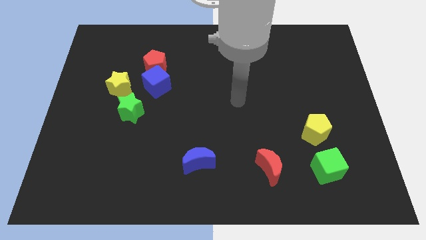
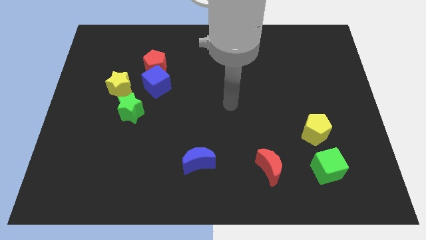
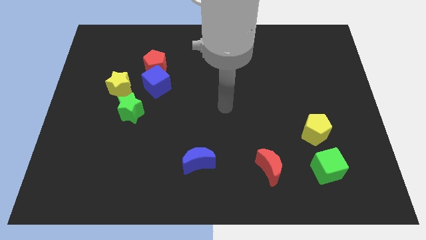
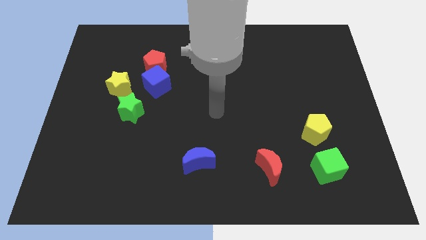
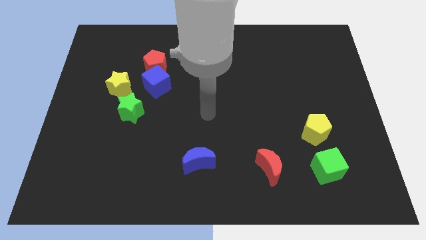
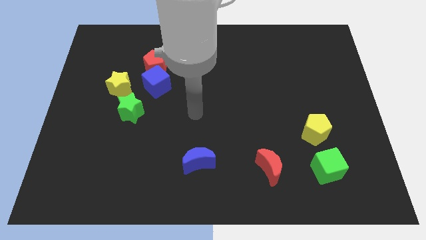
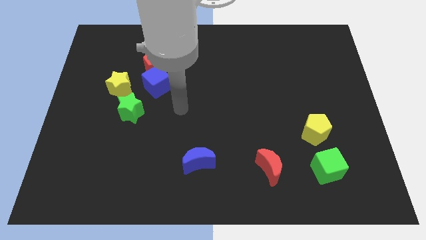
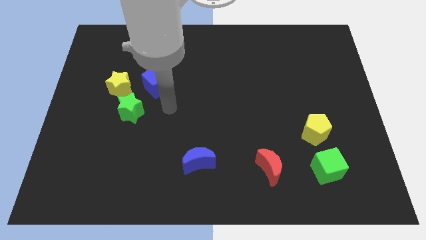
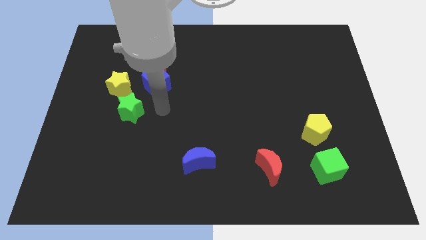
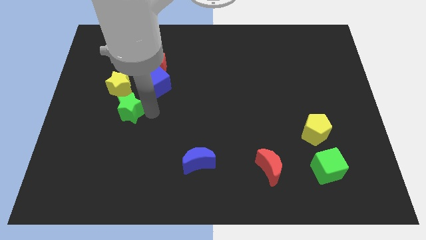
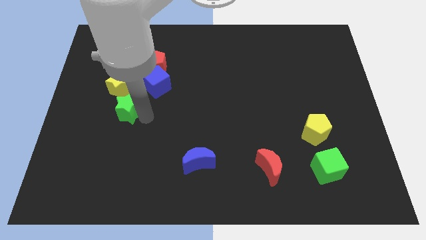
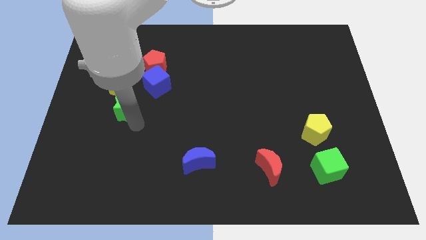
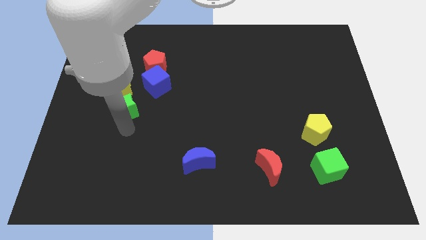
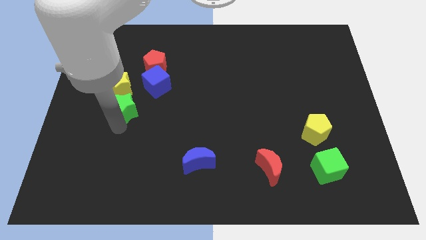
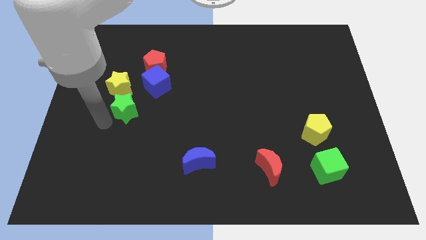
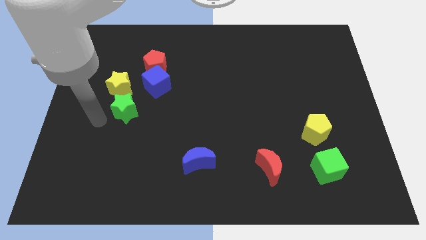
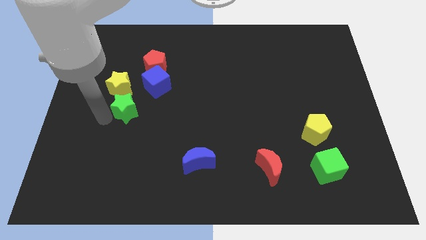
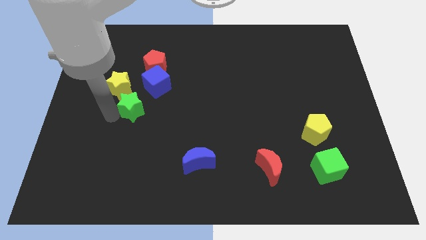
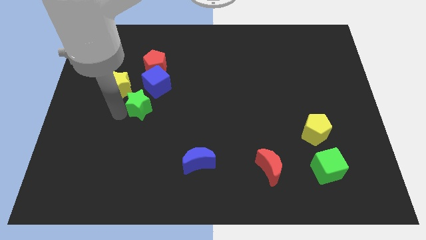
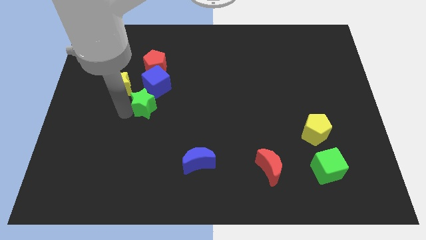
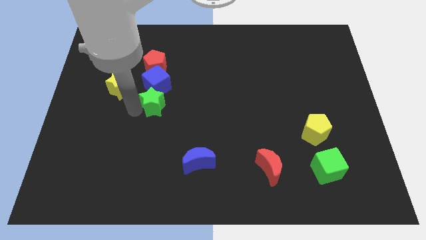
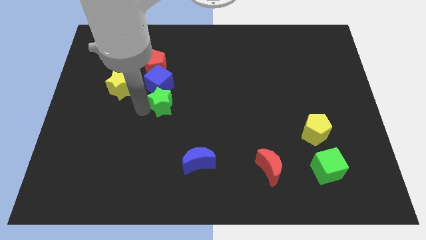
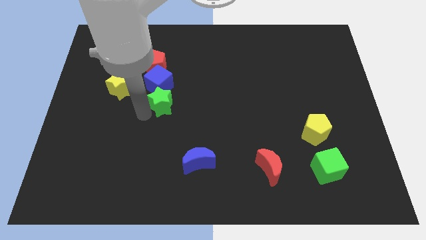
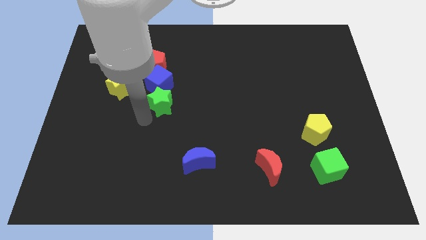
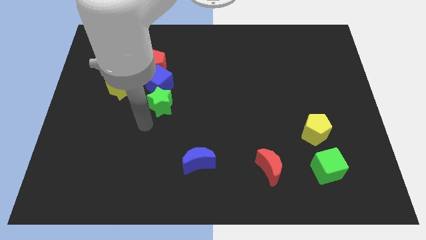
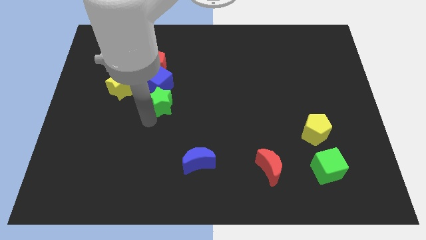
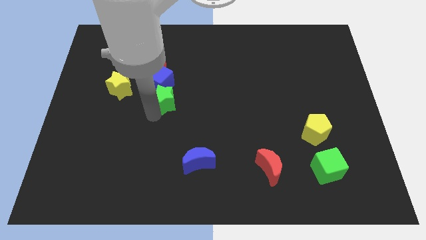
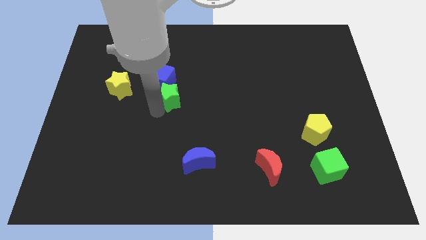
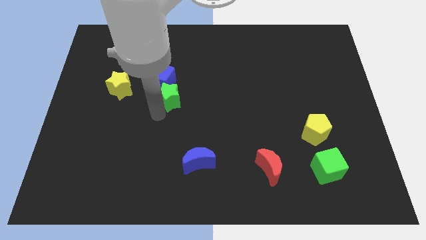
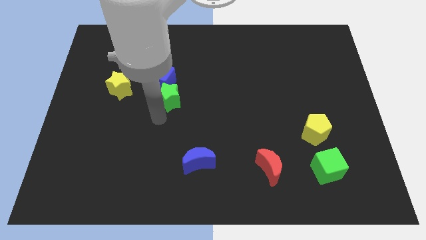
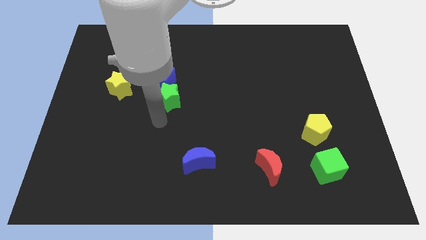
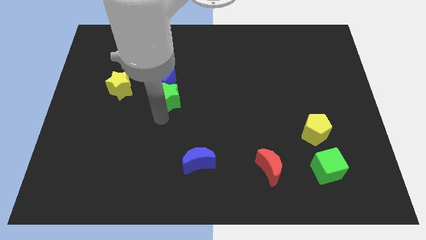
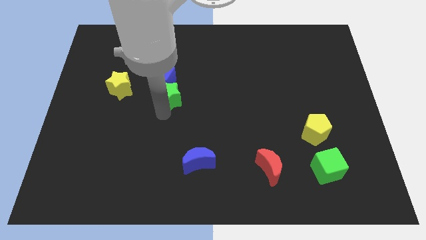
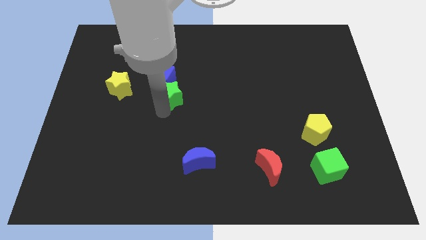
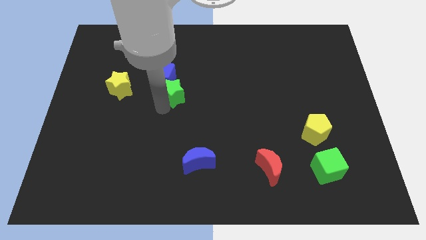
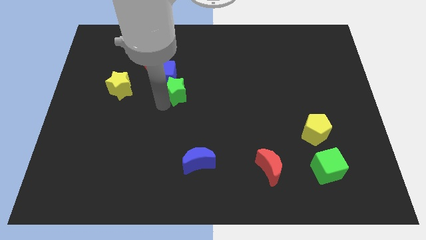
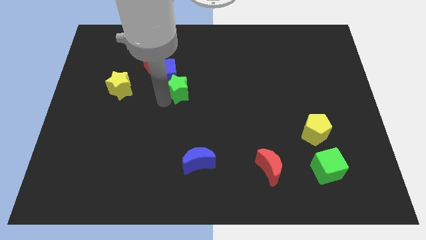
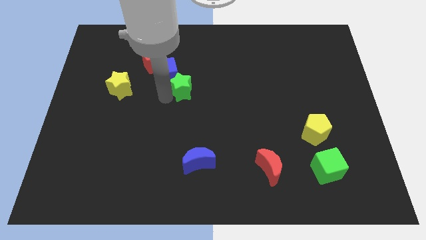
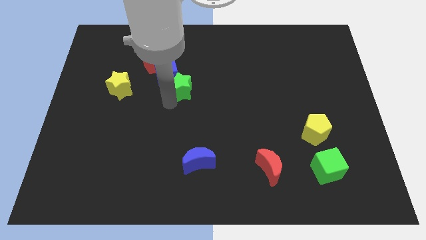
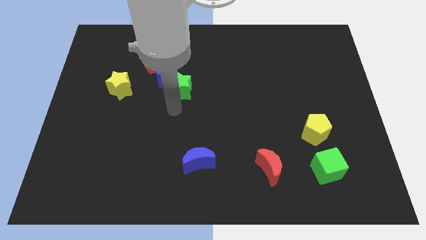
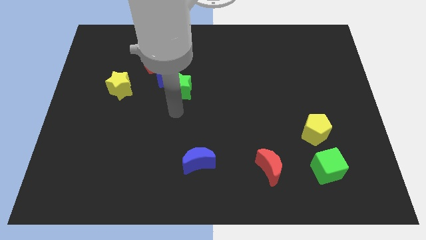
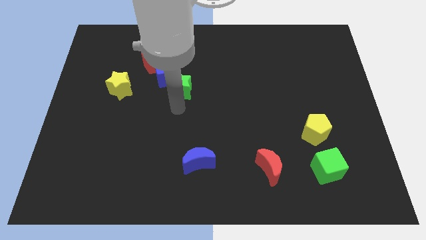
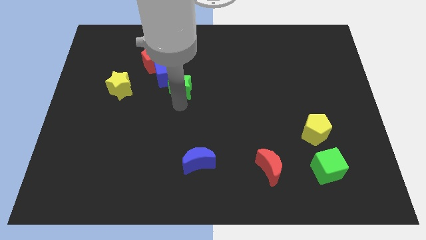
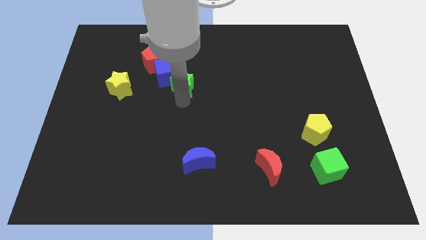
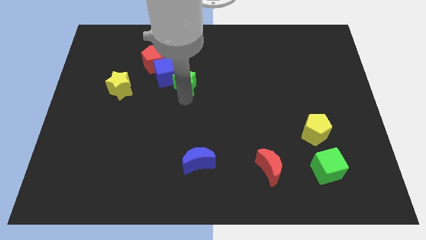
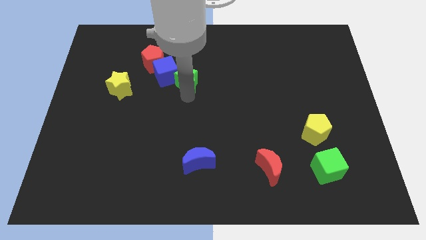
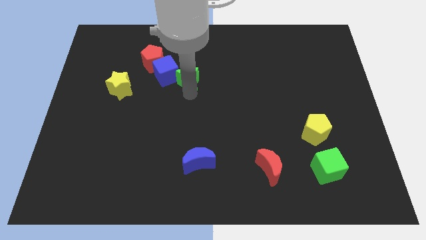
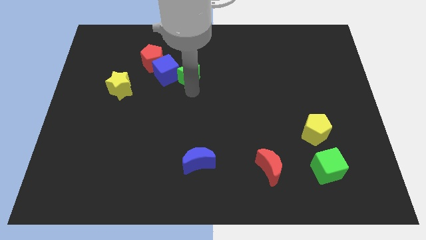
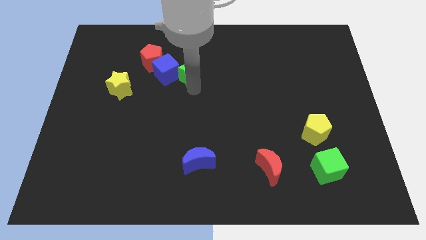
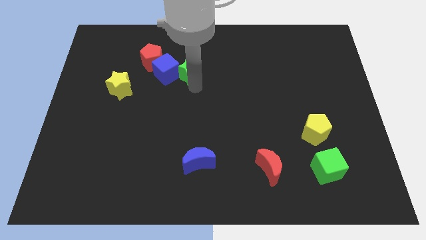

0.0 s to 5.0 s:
push the green star diagonally up and to the right of the blue cube

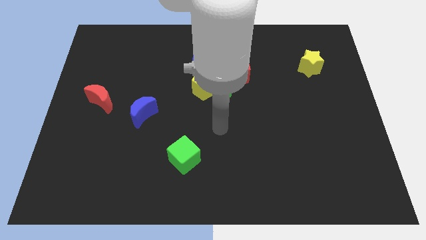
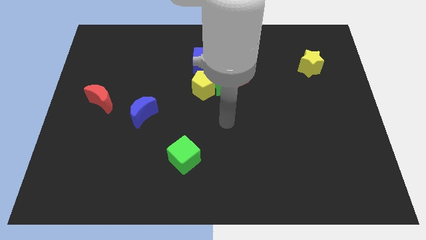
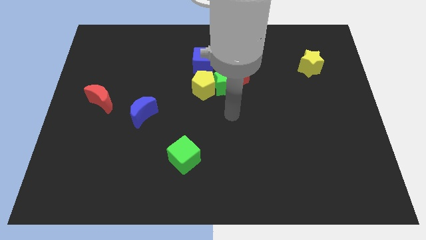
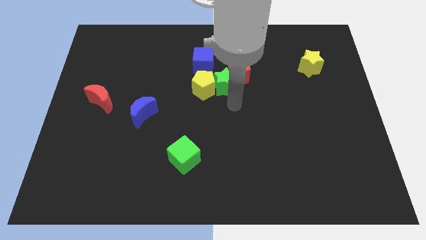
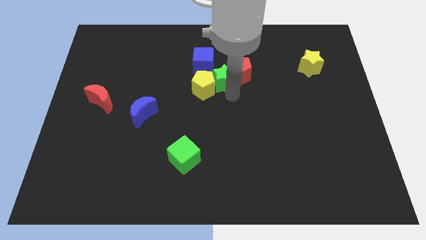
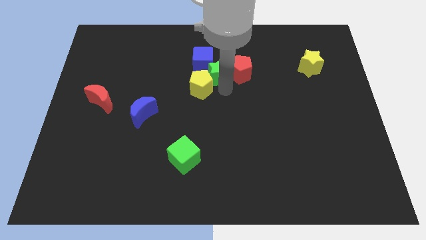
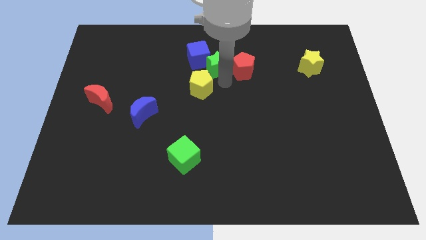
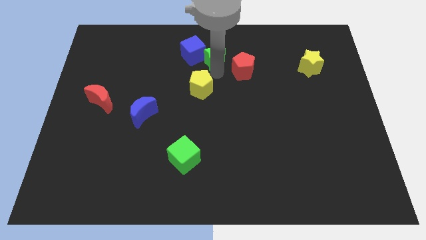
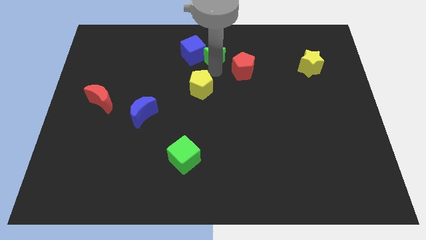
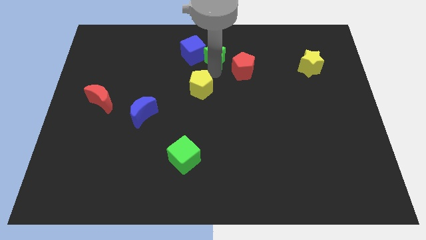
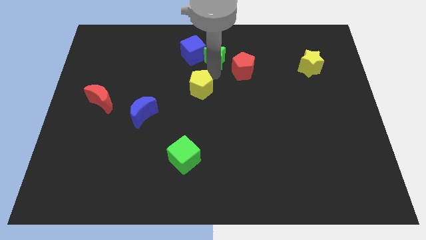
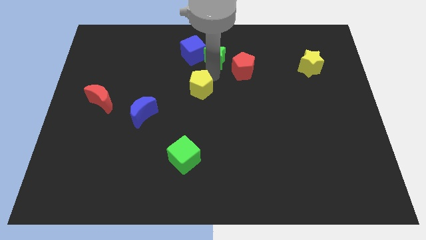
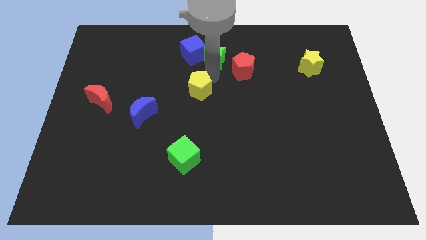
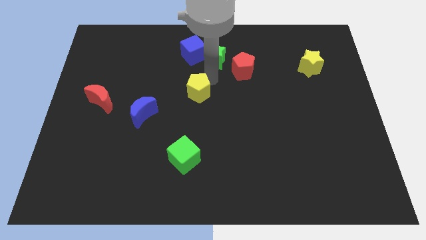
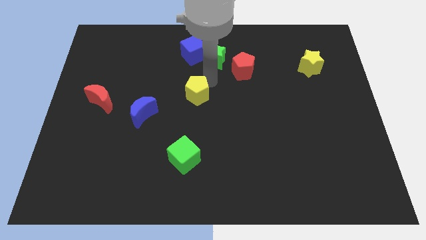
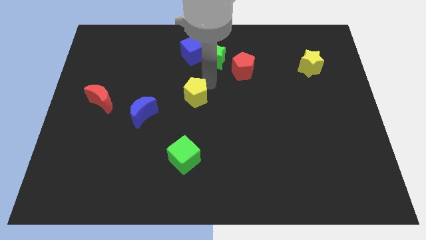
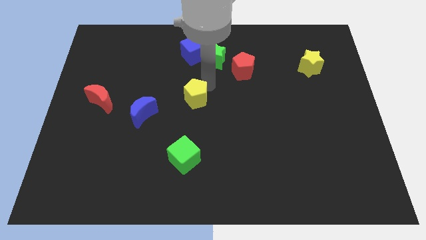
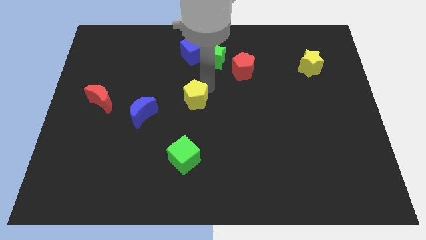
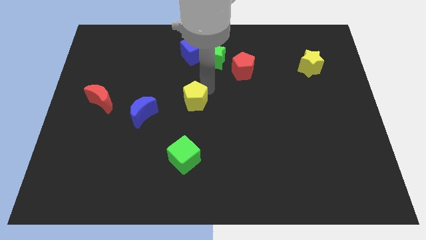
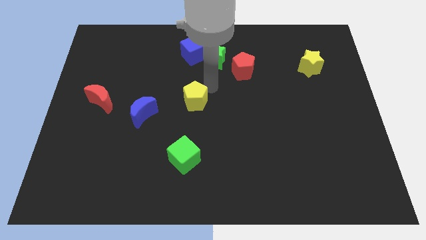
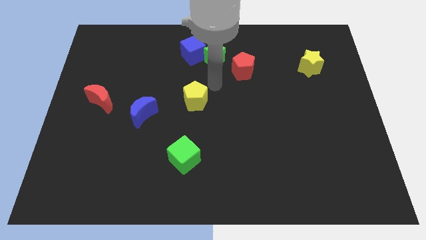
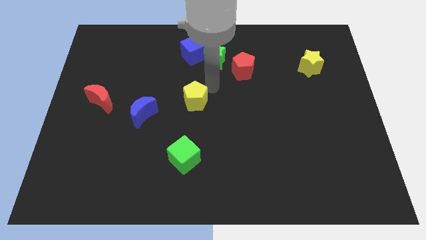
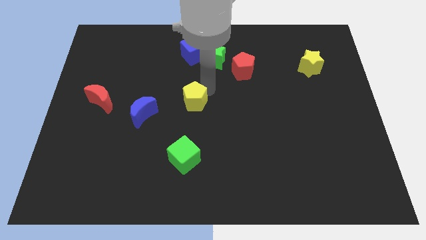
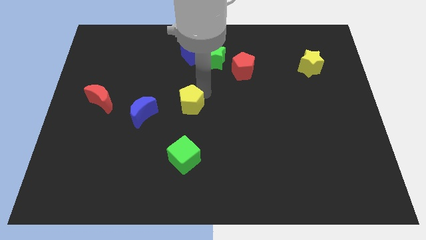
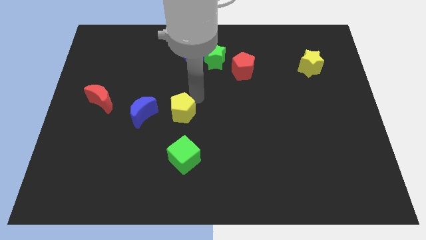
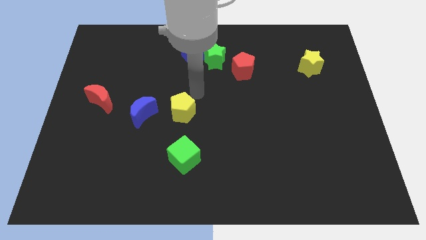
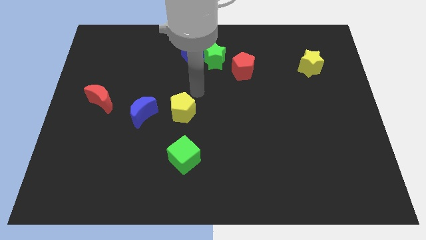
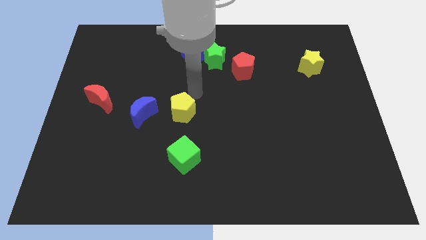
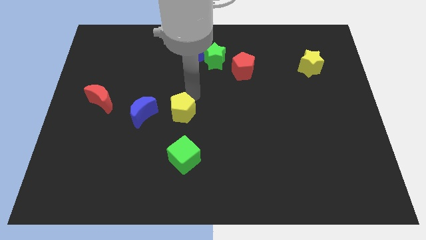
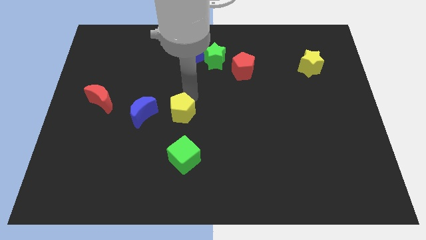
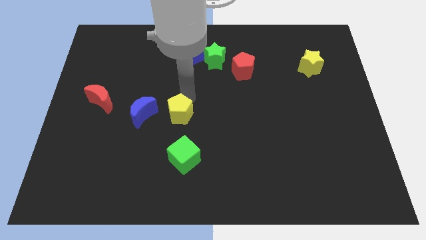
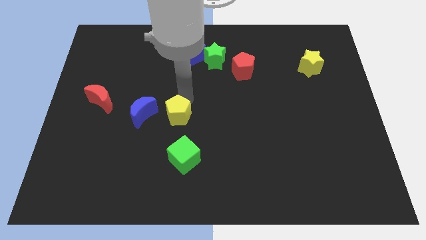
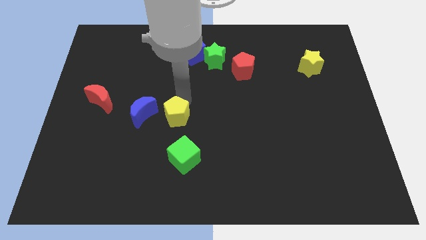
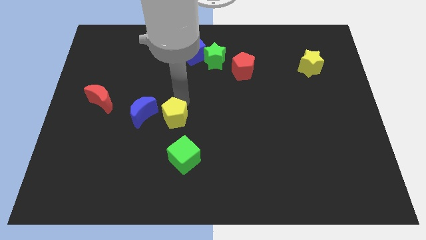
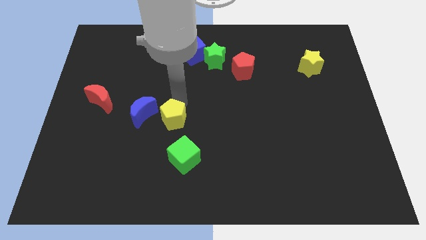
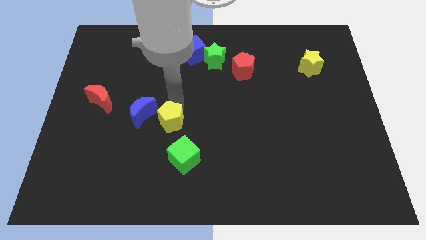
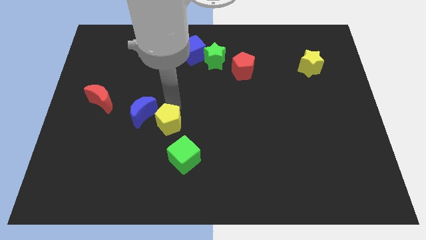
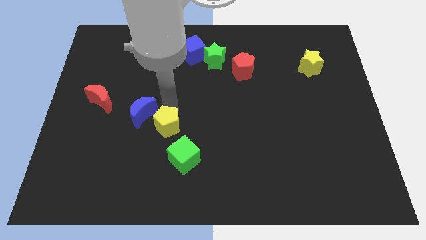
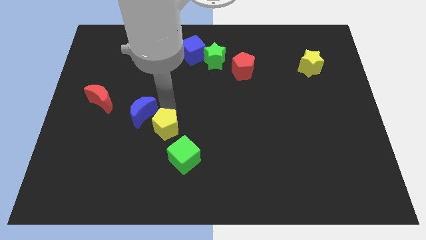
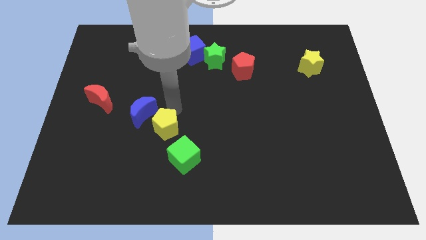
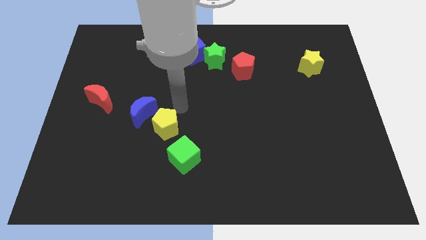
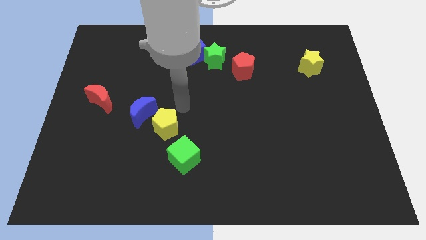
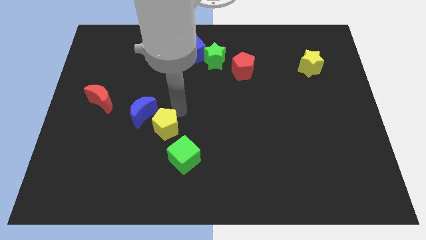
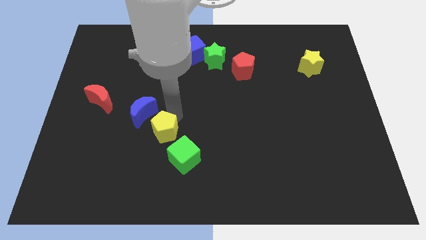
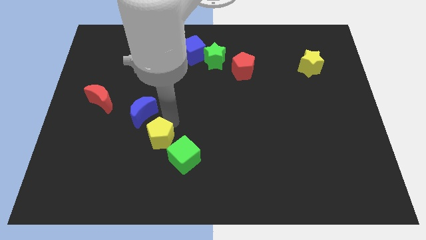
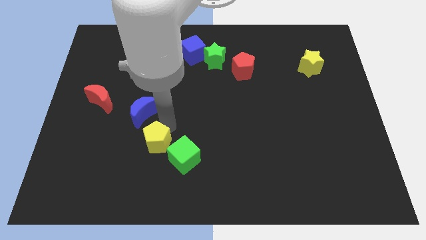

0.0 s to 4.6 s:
move the yellow pentagon left of the green cube
